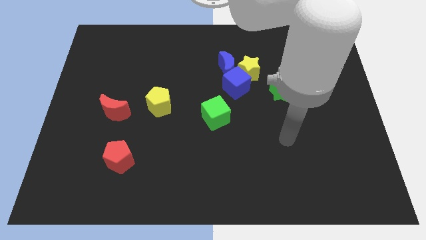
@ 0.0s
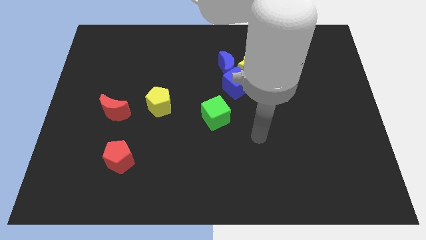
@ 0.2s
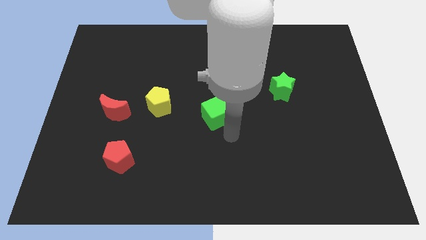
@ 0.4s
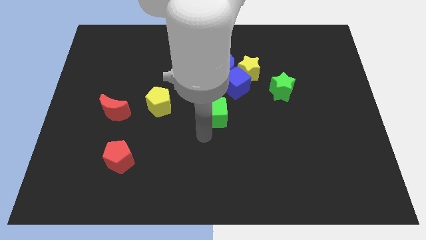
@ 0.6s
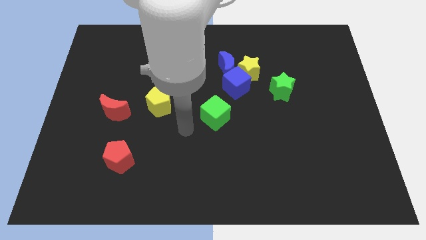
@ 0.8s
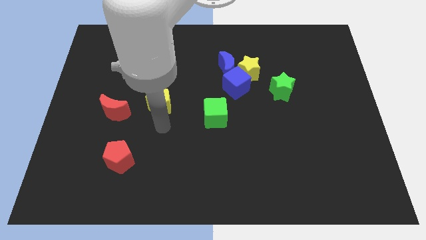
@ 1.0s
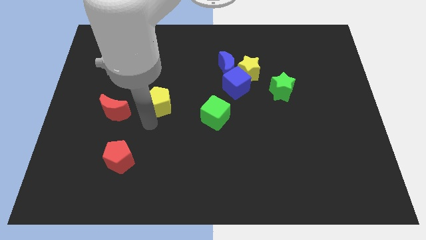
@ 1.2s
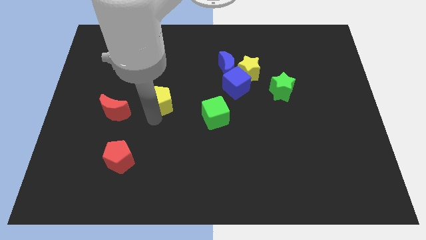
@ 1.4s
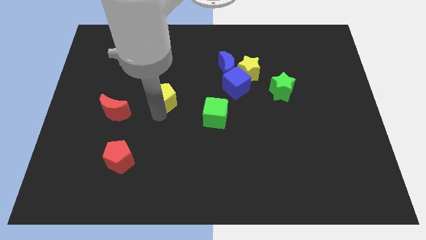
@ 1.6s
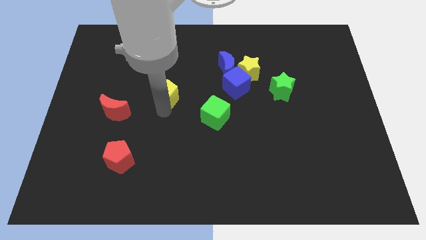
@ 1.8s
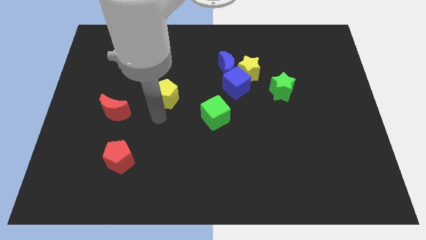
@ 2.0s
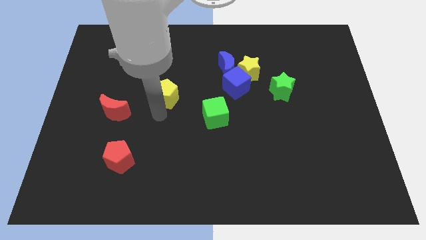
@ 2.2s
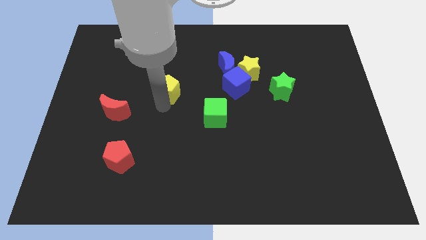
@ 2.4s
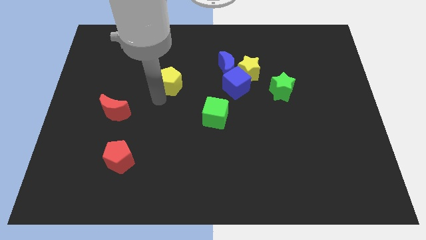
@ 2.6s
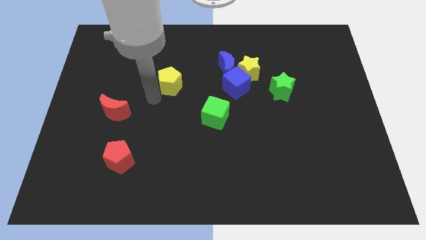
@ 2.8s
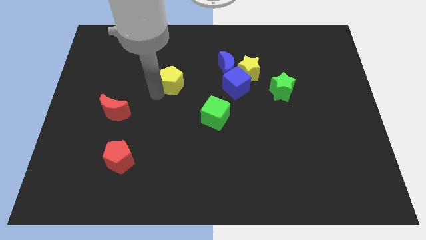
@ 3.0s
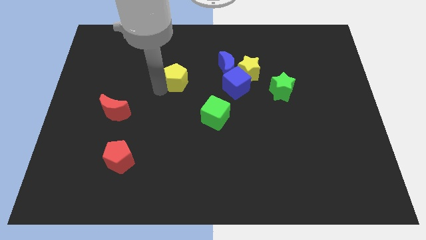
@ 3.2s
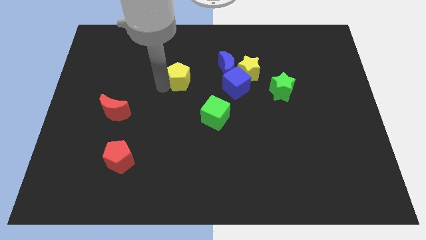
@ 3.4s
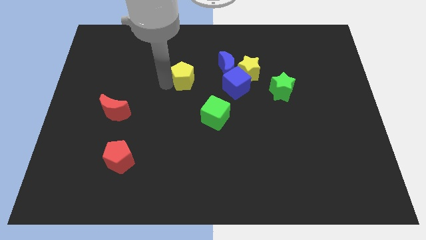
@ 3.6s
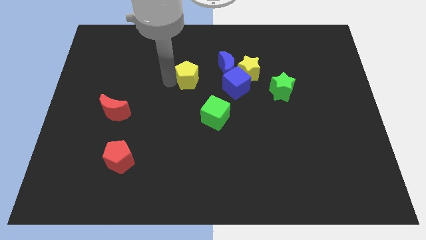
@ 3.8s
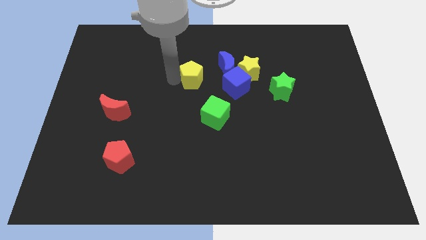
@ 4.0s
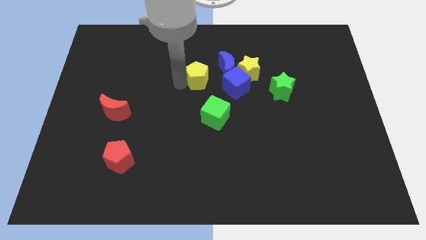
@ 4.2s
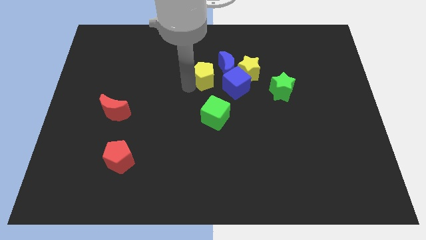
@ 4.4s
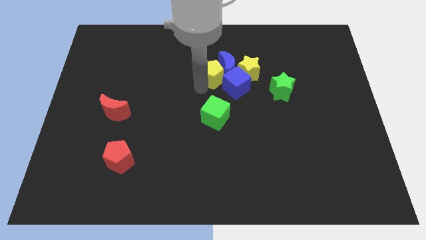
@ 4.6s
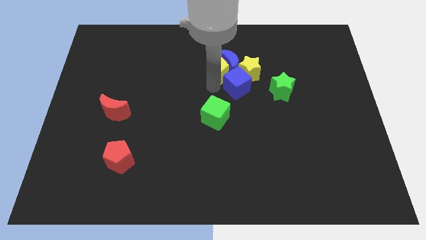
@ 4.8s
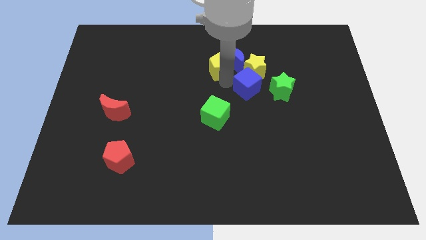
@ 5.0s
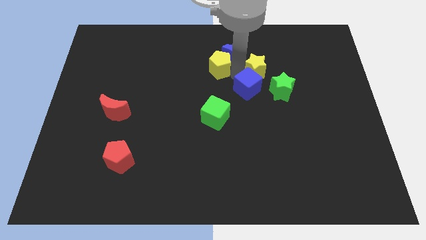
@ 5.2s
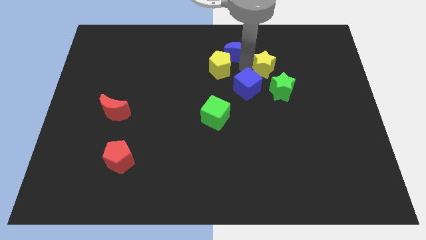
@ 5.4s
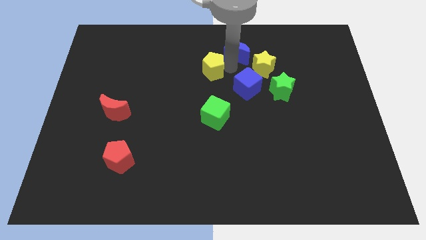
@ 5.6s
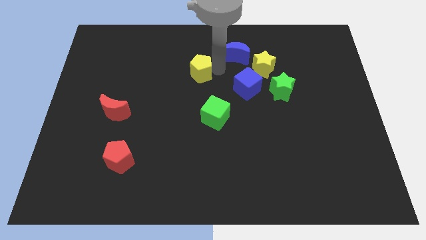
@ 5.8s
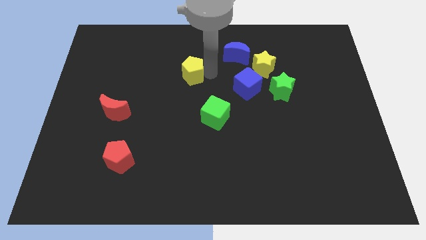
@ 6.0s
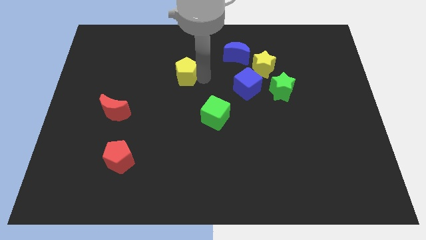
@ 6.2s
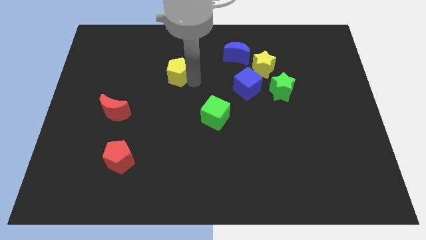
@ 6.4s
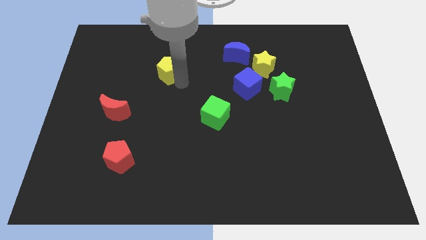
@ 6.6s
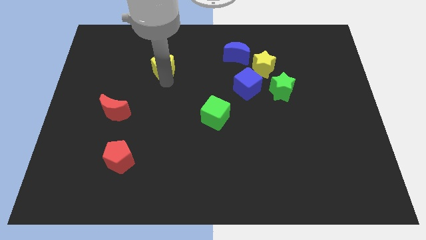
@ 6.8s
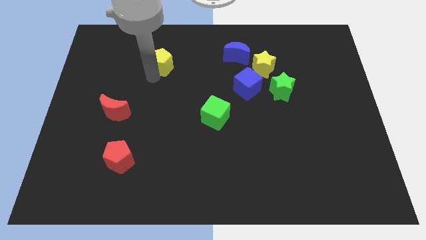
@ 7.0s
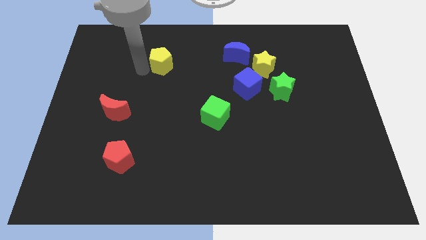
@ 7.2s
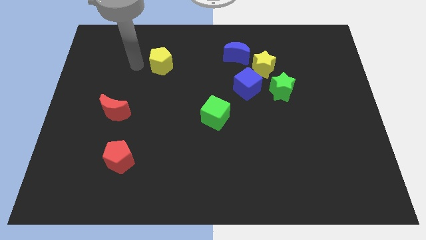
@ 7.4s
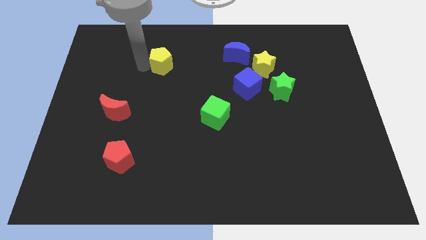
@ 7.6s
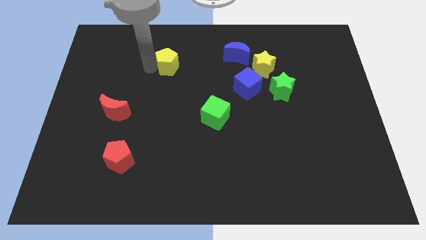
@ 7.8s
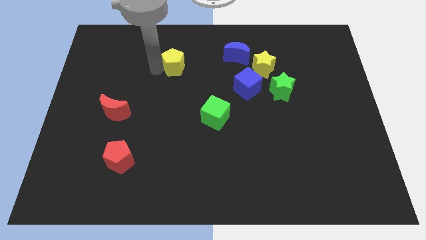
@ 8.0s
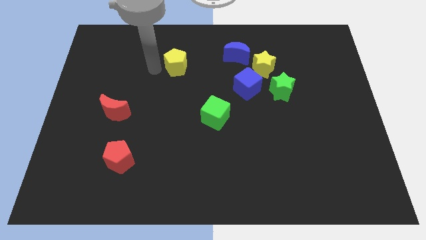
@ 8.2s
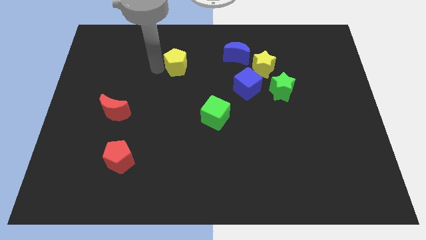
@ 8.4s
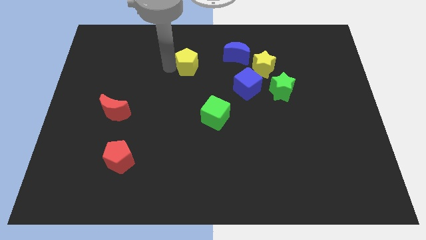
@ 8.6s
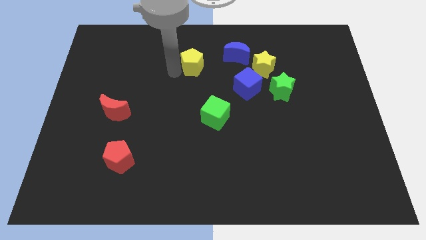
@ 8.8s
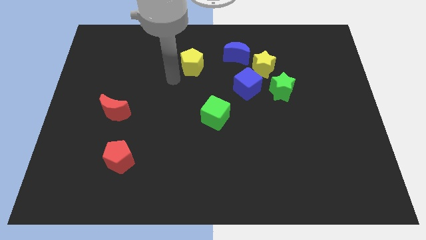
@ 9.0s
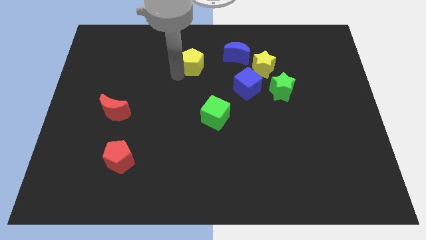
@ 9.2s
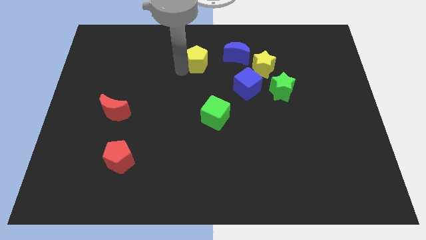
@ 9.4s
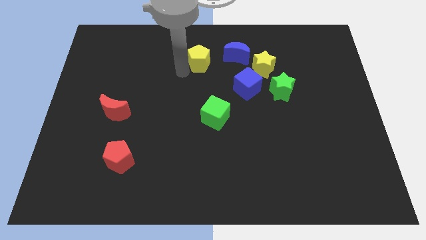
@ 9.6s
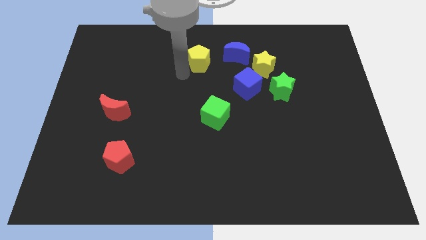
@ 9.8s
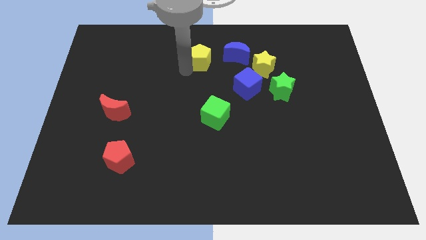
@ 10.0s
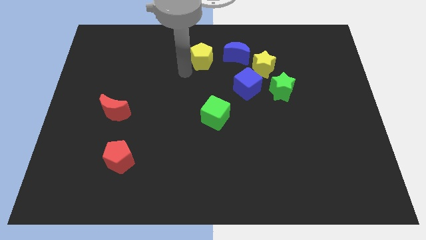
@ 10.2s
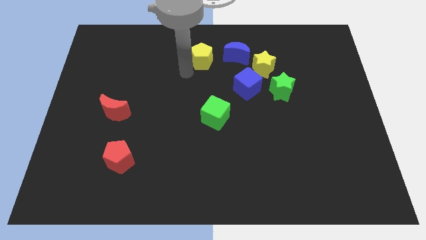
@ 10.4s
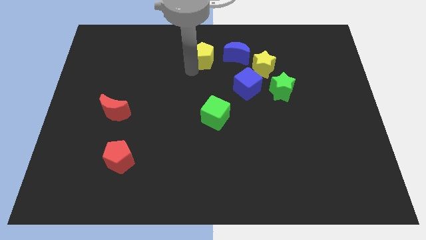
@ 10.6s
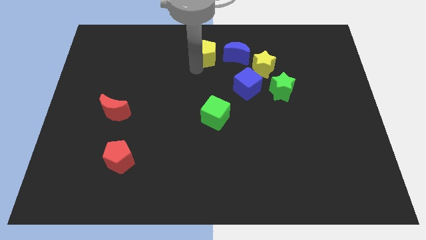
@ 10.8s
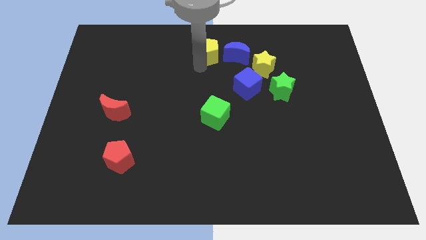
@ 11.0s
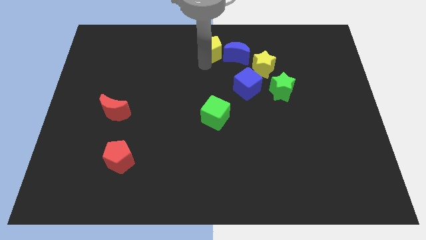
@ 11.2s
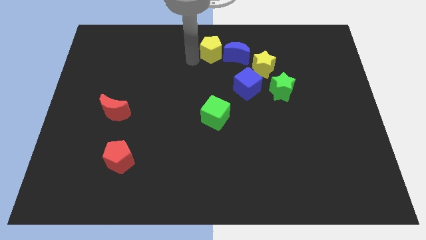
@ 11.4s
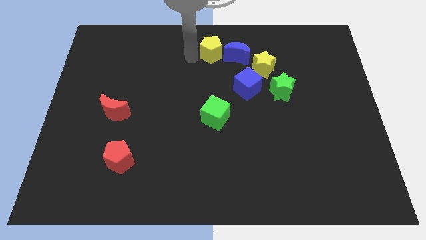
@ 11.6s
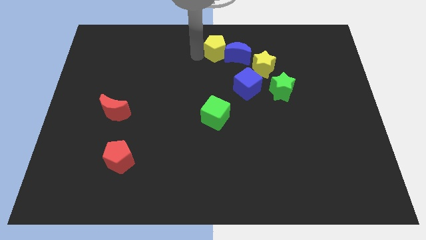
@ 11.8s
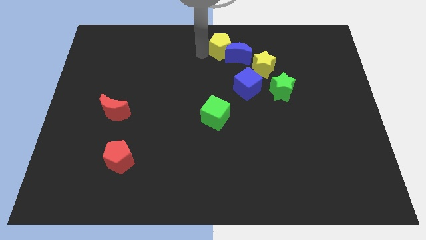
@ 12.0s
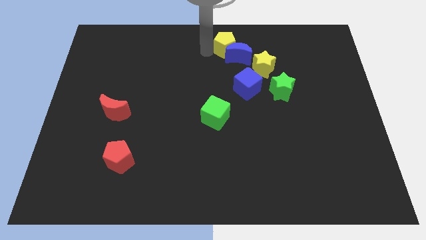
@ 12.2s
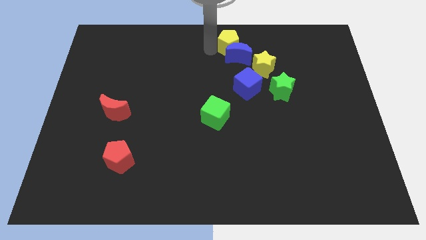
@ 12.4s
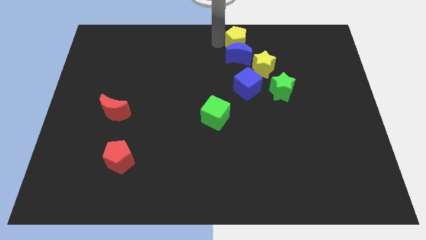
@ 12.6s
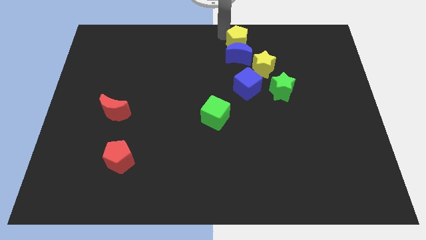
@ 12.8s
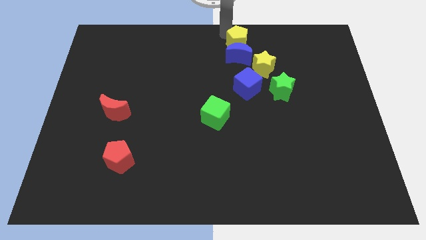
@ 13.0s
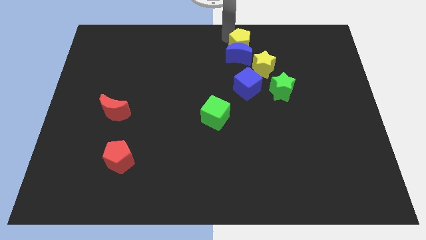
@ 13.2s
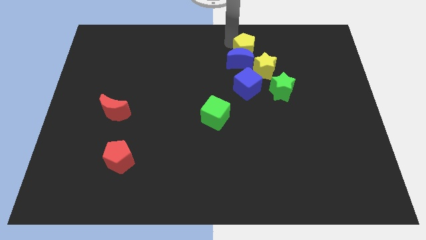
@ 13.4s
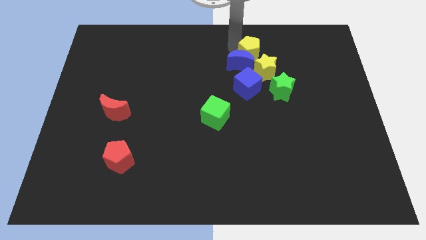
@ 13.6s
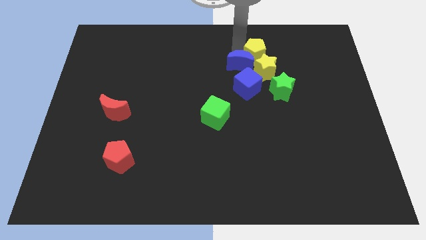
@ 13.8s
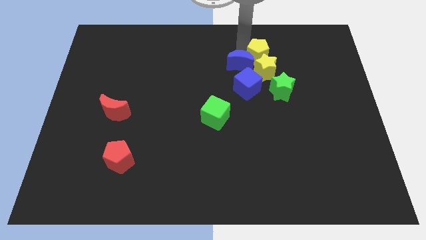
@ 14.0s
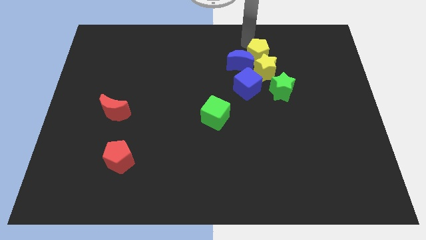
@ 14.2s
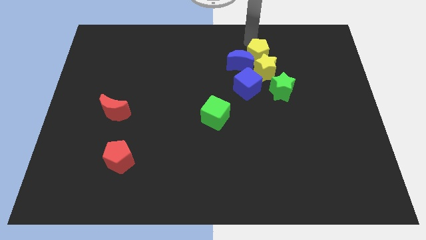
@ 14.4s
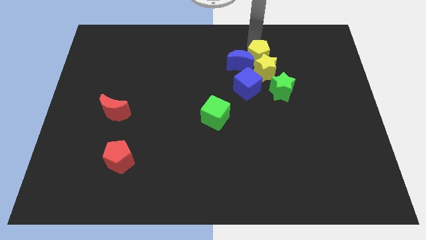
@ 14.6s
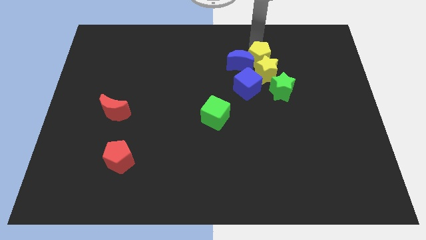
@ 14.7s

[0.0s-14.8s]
put the yellow pentagon to the top right of the blue cube
